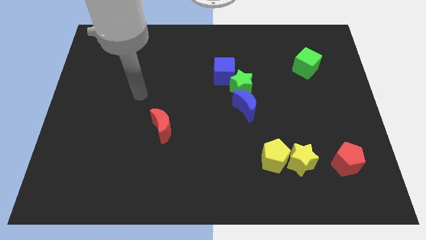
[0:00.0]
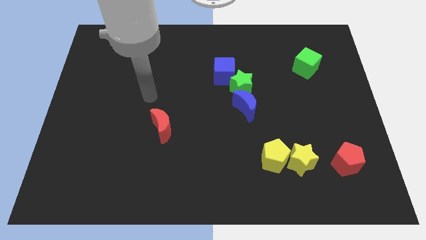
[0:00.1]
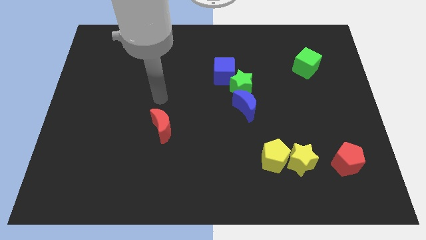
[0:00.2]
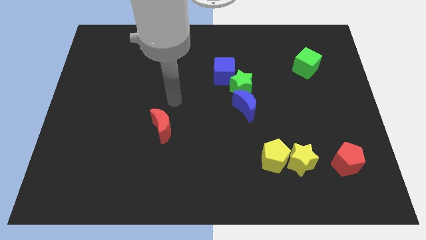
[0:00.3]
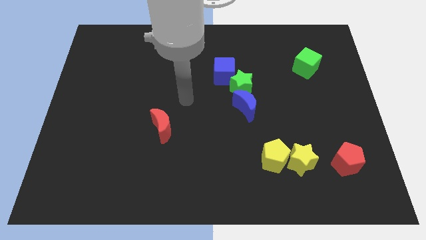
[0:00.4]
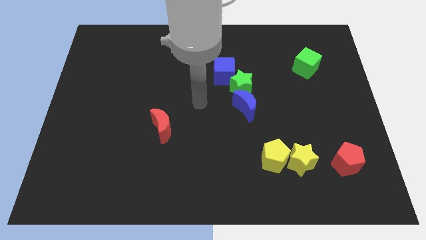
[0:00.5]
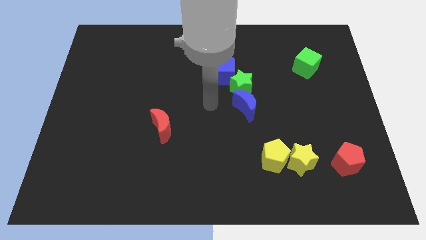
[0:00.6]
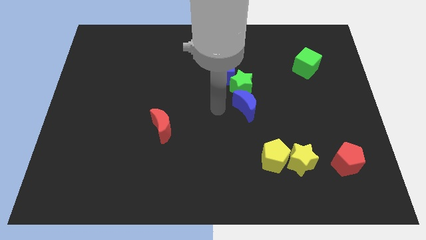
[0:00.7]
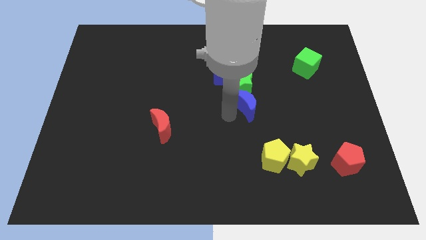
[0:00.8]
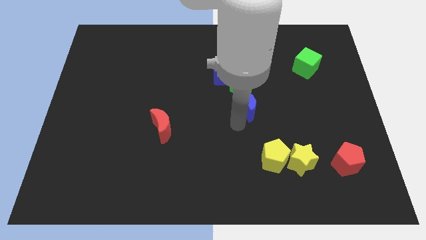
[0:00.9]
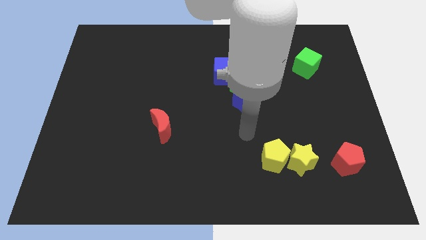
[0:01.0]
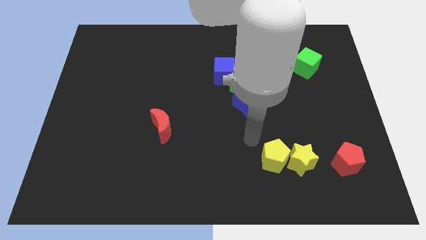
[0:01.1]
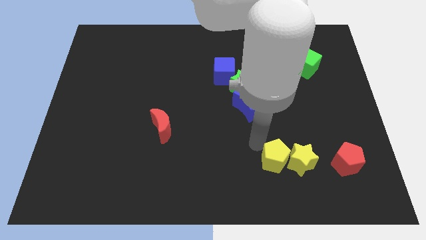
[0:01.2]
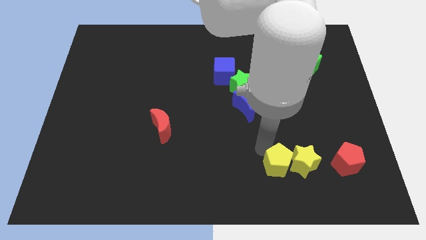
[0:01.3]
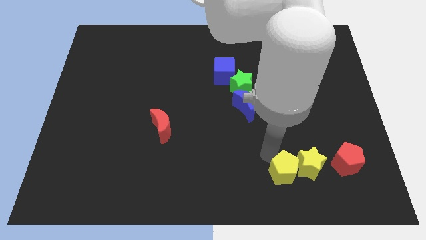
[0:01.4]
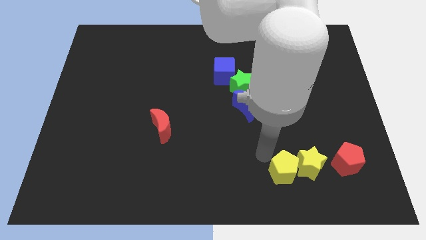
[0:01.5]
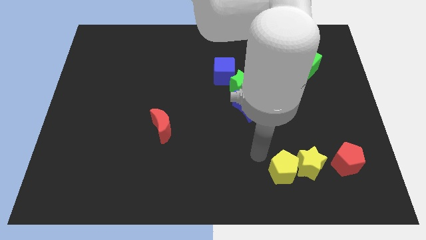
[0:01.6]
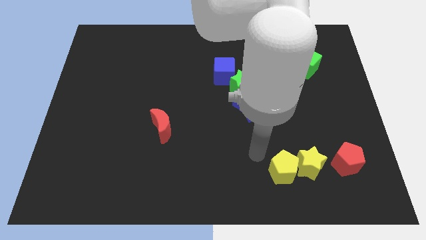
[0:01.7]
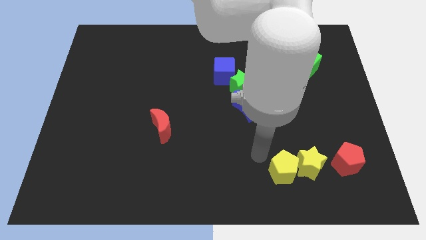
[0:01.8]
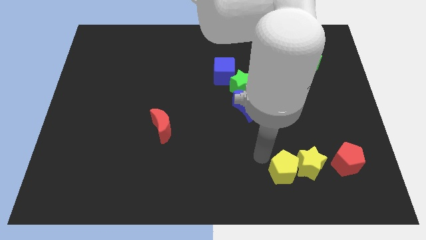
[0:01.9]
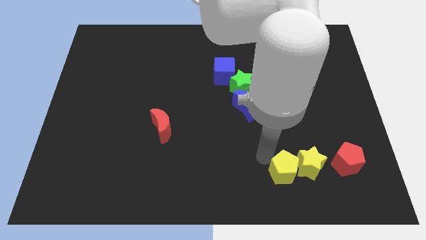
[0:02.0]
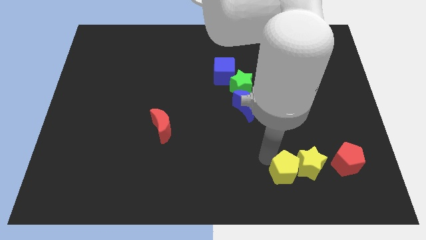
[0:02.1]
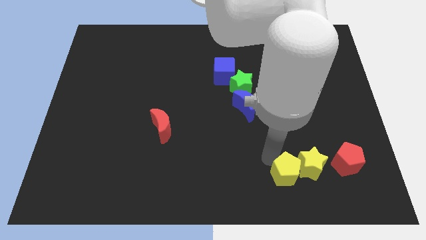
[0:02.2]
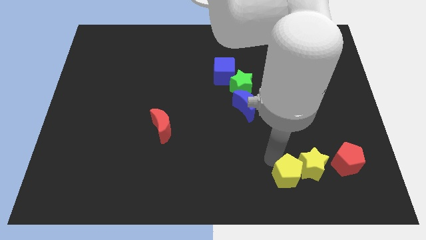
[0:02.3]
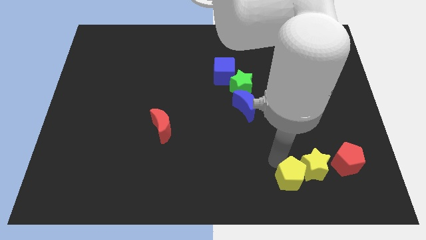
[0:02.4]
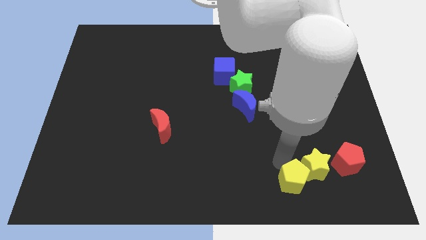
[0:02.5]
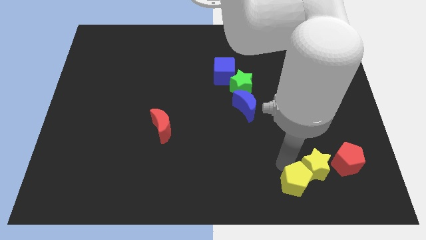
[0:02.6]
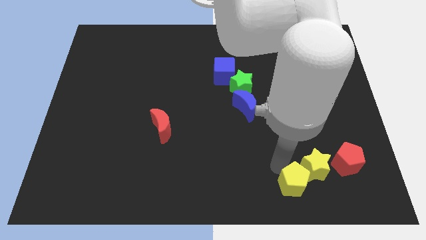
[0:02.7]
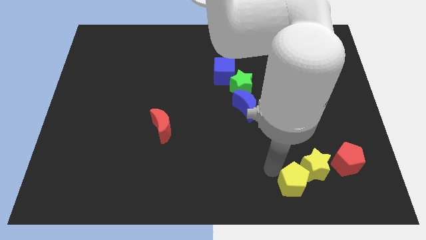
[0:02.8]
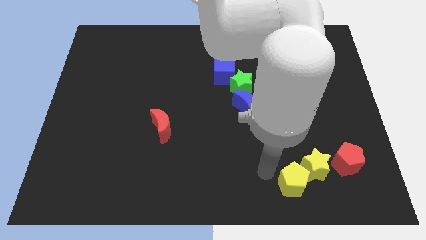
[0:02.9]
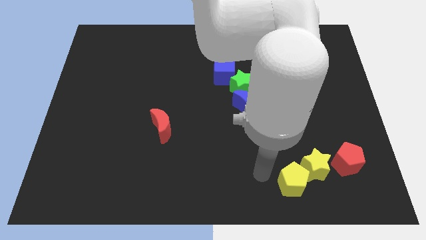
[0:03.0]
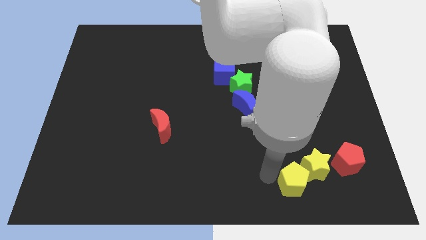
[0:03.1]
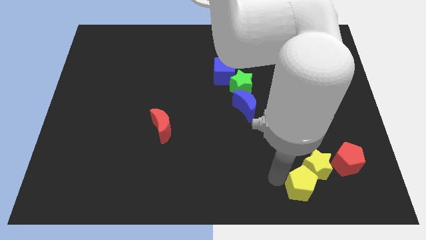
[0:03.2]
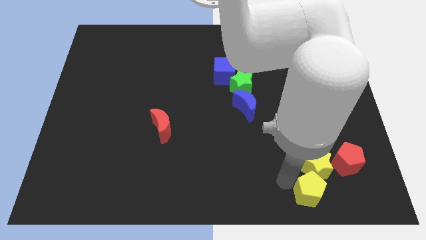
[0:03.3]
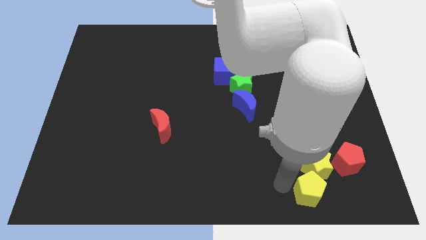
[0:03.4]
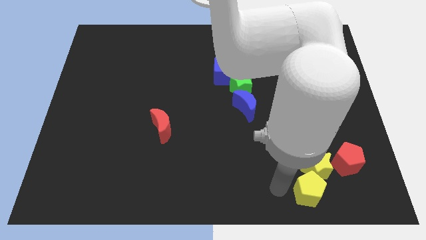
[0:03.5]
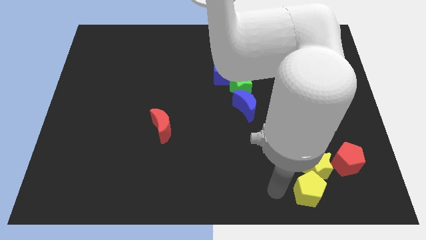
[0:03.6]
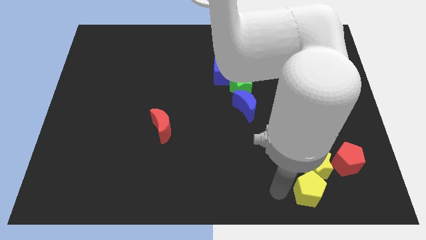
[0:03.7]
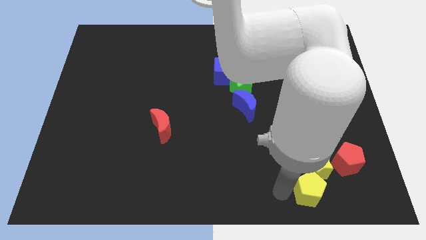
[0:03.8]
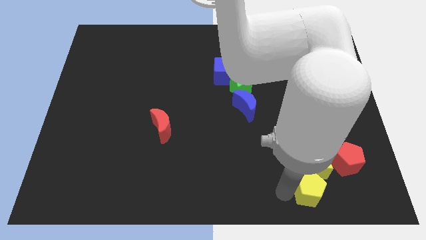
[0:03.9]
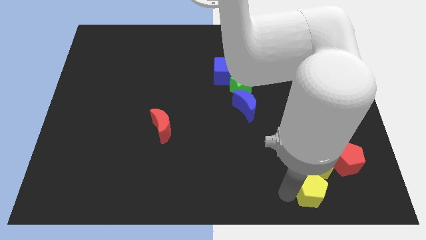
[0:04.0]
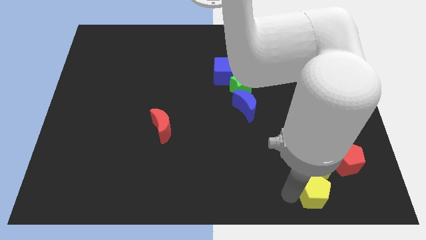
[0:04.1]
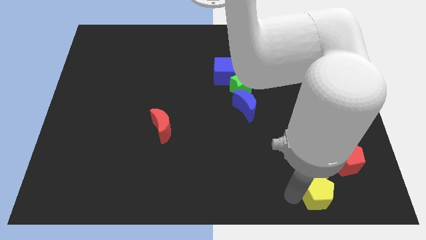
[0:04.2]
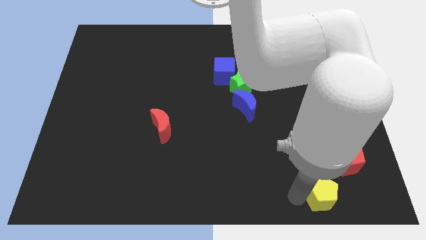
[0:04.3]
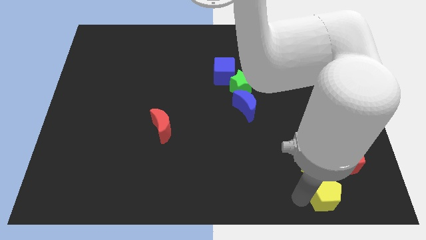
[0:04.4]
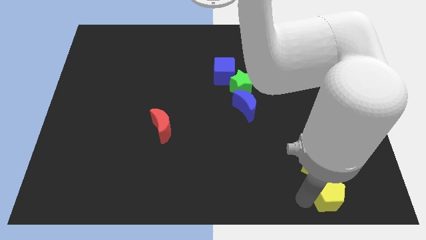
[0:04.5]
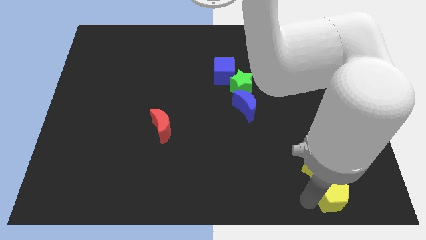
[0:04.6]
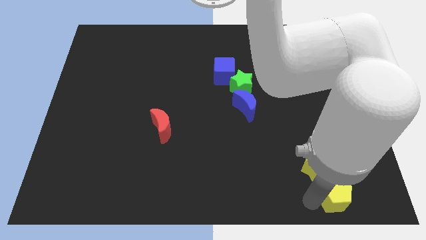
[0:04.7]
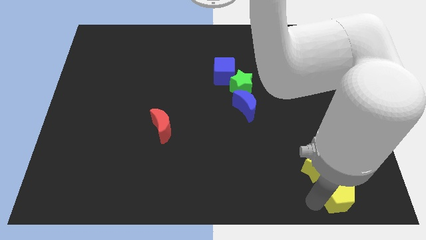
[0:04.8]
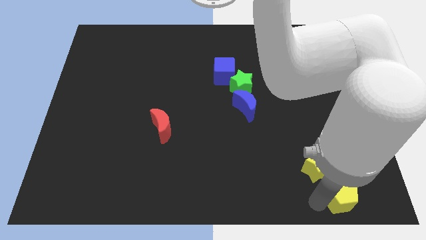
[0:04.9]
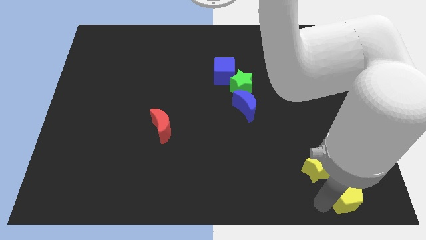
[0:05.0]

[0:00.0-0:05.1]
push the yellow pentagon to the lower right corner

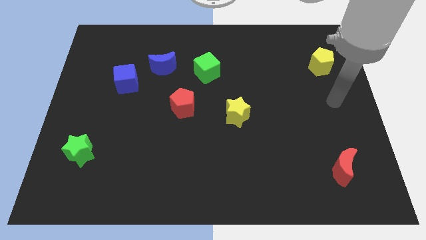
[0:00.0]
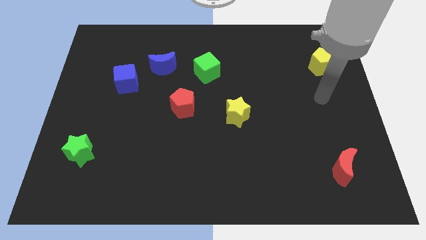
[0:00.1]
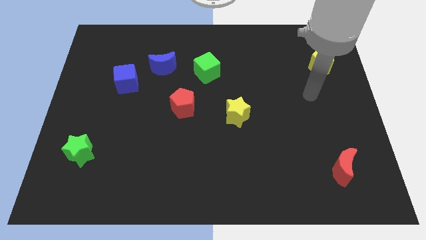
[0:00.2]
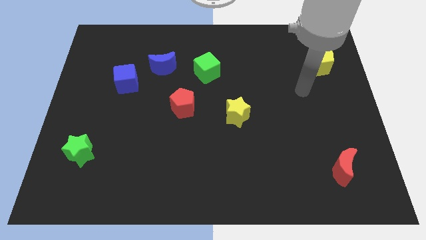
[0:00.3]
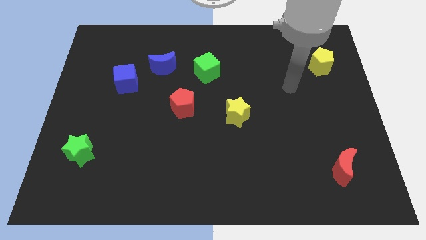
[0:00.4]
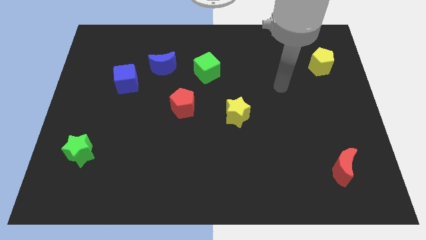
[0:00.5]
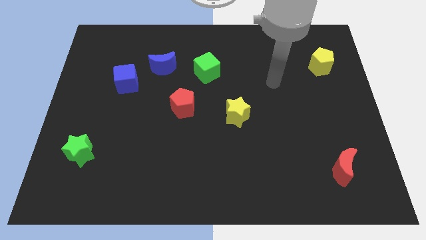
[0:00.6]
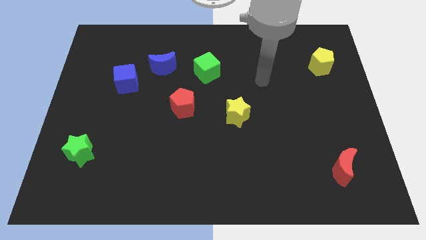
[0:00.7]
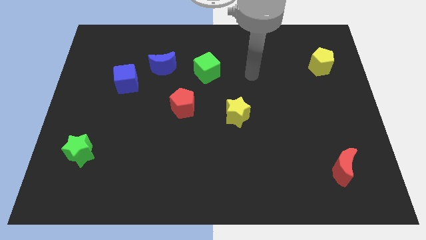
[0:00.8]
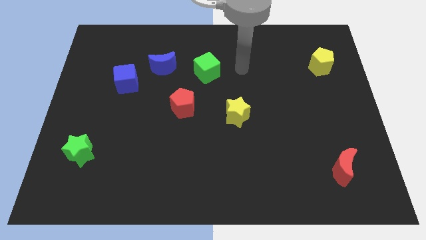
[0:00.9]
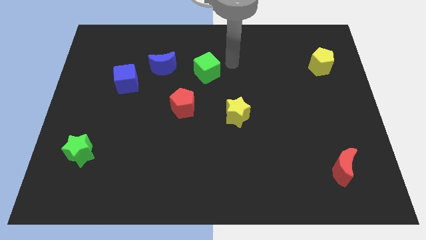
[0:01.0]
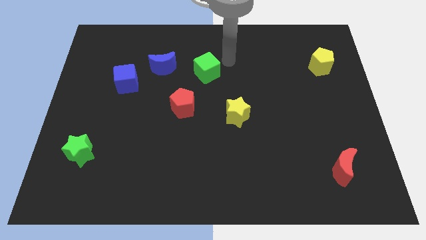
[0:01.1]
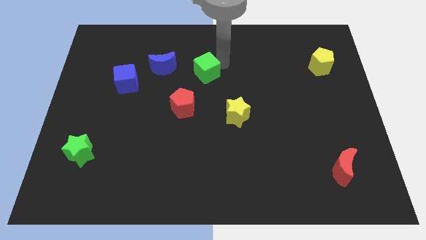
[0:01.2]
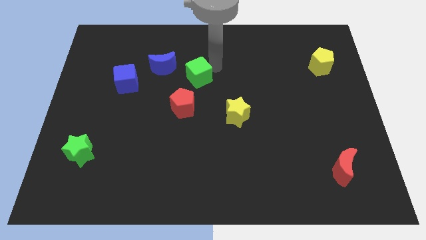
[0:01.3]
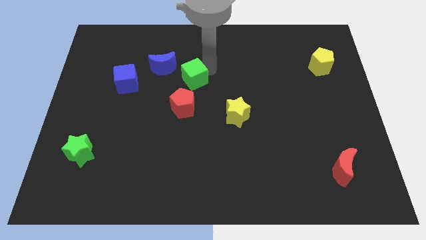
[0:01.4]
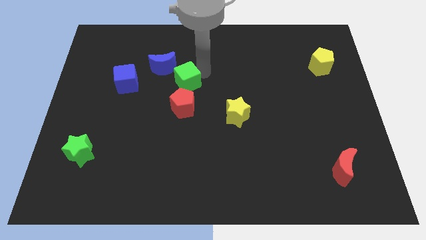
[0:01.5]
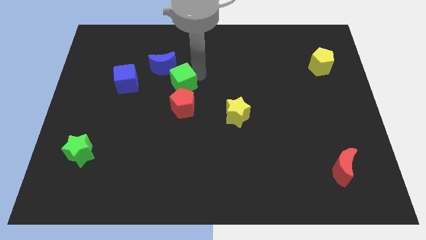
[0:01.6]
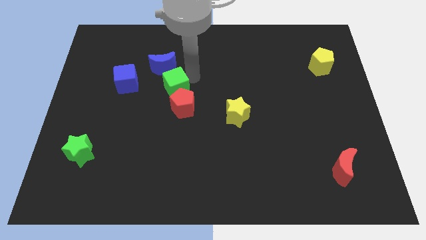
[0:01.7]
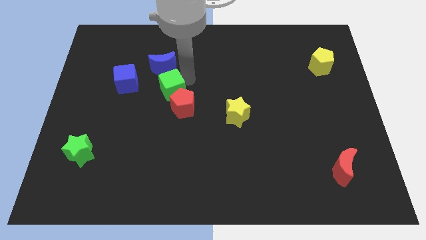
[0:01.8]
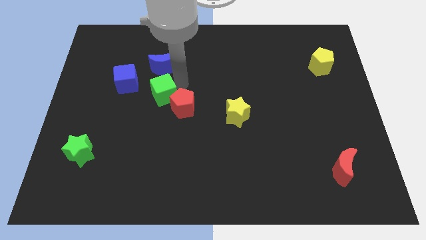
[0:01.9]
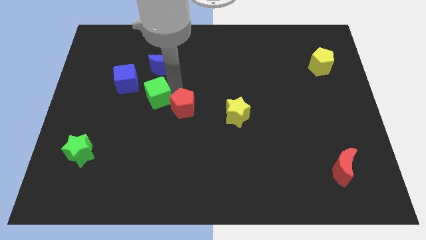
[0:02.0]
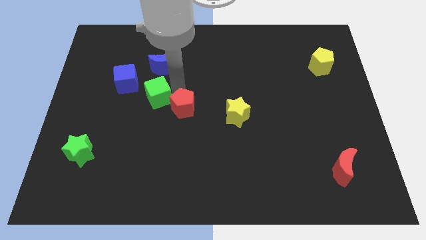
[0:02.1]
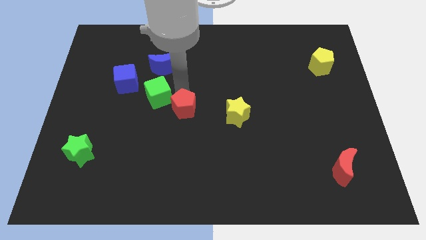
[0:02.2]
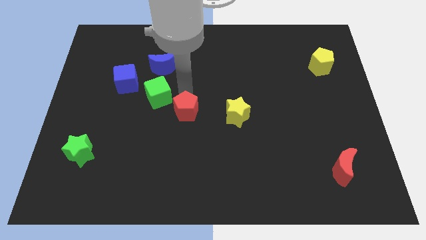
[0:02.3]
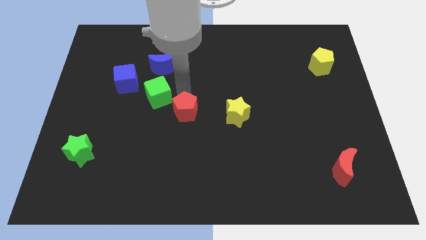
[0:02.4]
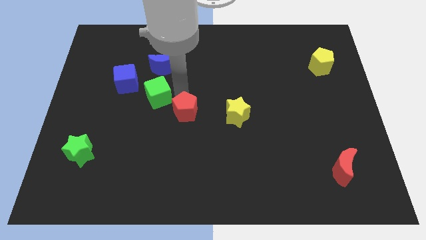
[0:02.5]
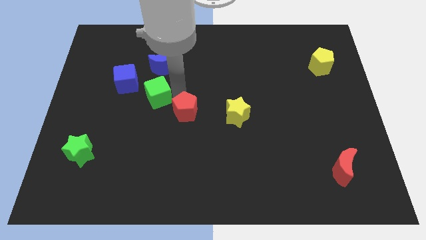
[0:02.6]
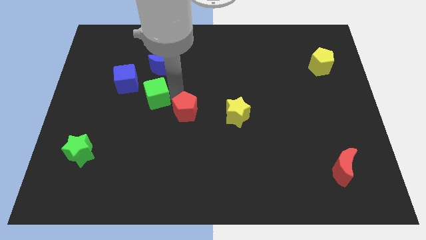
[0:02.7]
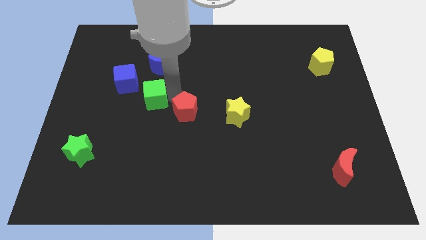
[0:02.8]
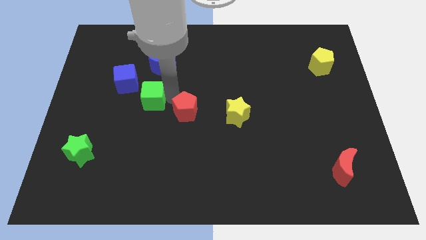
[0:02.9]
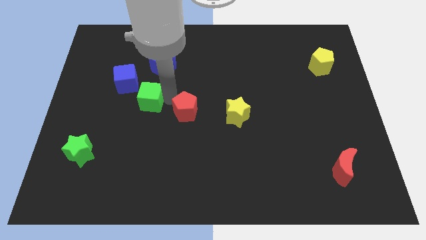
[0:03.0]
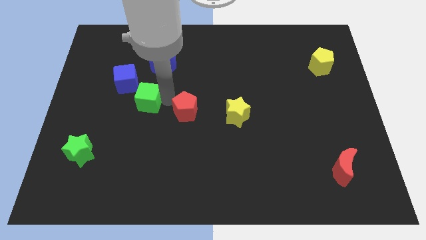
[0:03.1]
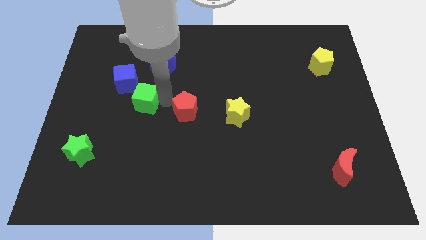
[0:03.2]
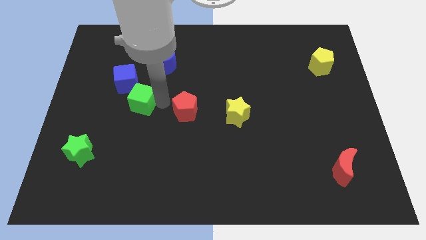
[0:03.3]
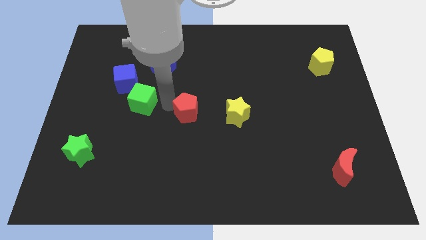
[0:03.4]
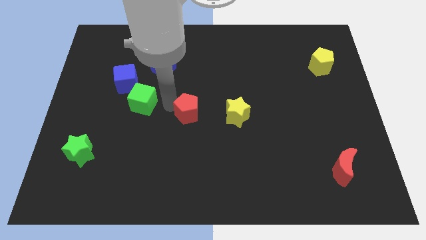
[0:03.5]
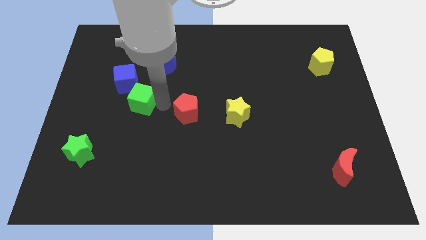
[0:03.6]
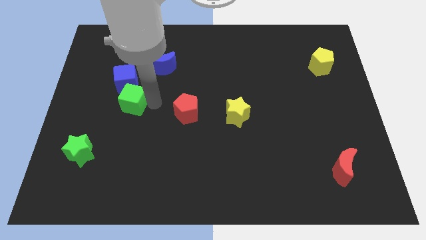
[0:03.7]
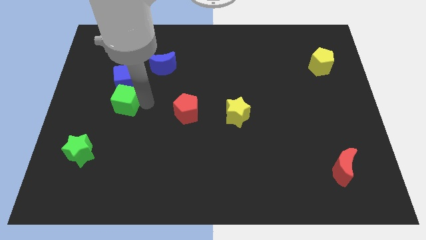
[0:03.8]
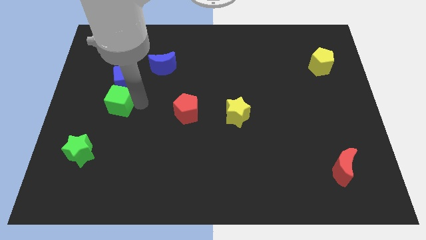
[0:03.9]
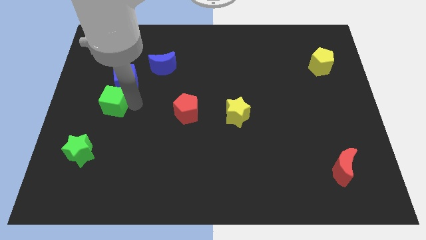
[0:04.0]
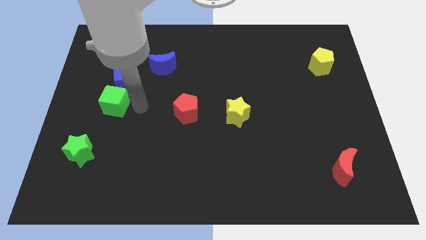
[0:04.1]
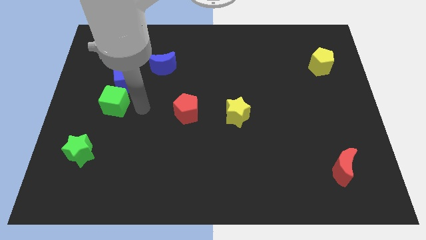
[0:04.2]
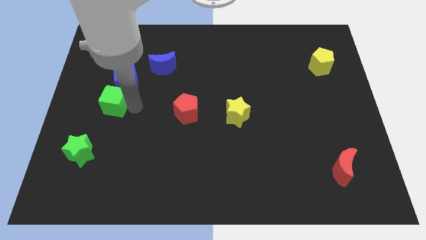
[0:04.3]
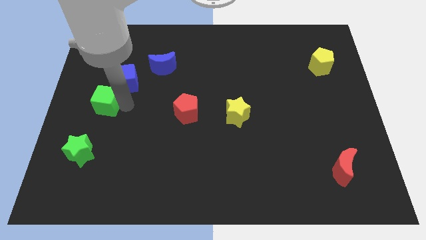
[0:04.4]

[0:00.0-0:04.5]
put the green cube to the left side of the board
